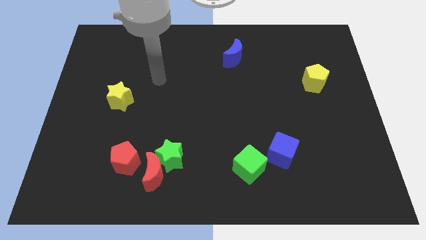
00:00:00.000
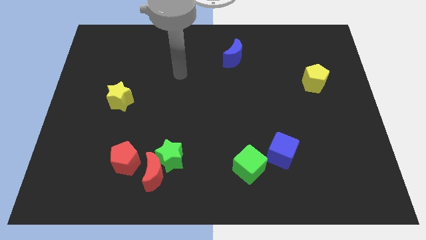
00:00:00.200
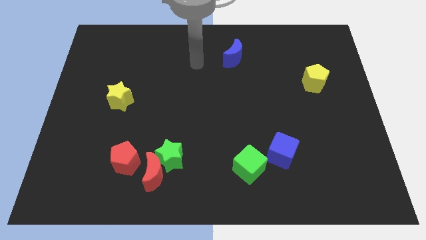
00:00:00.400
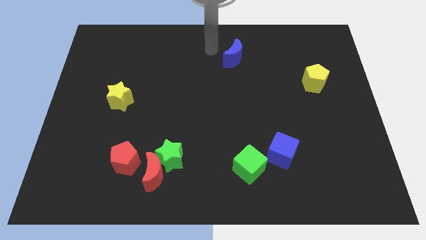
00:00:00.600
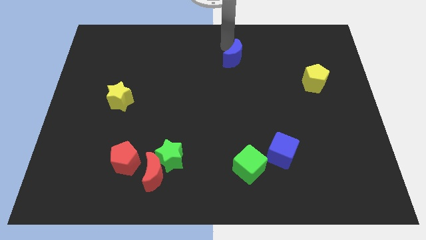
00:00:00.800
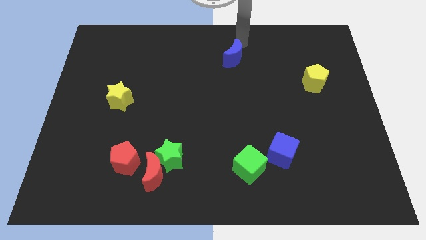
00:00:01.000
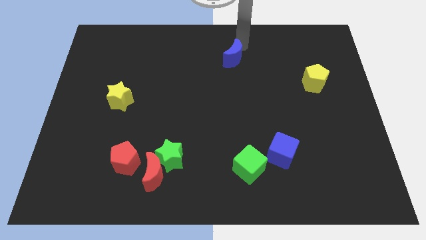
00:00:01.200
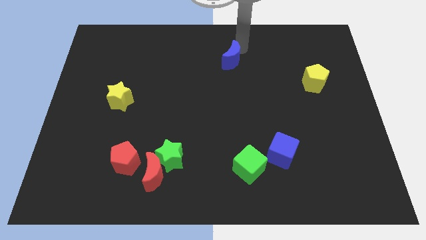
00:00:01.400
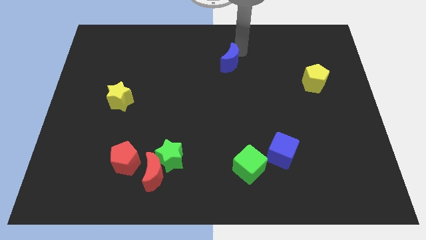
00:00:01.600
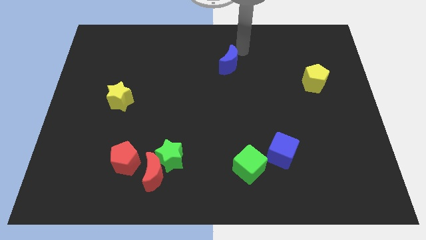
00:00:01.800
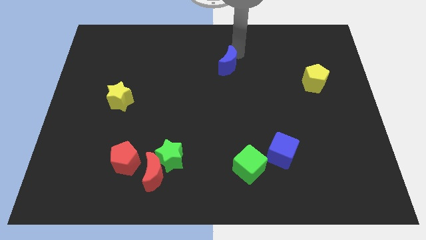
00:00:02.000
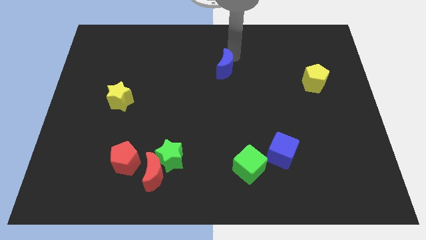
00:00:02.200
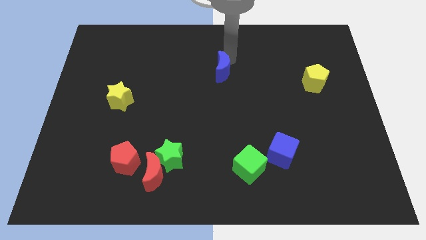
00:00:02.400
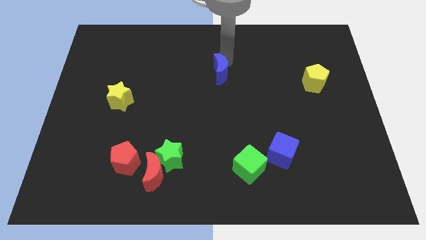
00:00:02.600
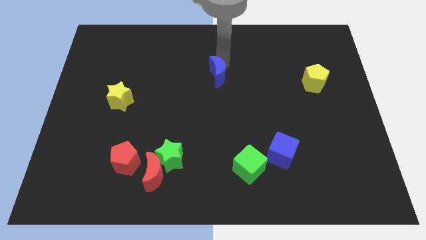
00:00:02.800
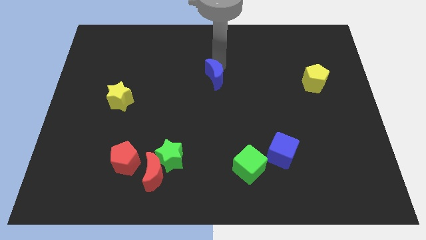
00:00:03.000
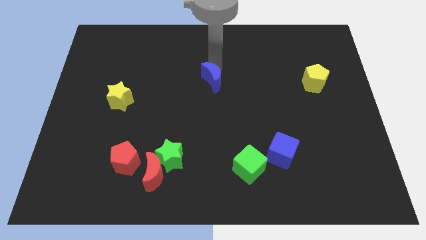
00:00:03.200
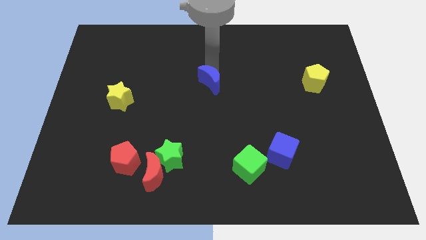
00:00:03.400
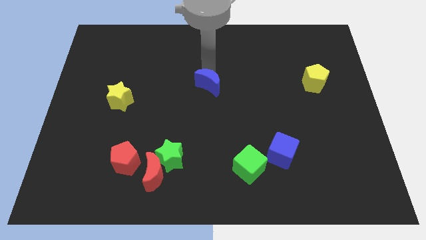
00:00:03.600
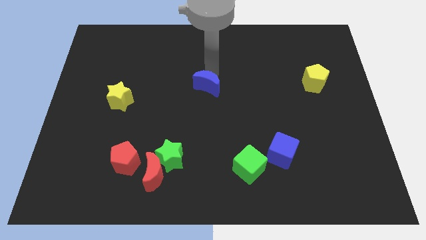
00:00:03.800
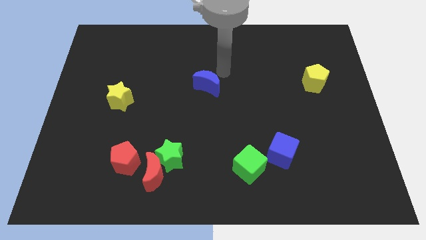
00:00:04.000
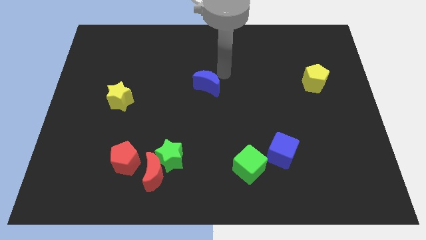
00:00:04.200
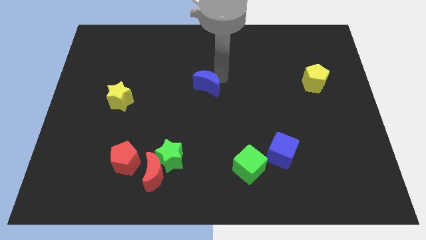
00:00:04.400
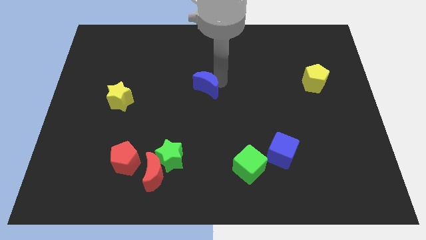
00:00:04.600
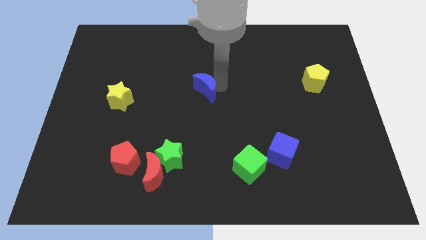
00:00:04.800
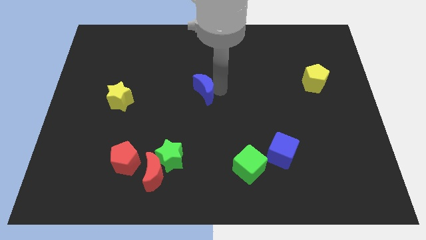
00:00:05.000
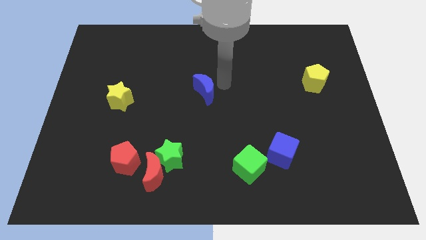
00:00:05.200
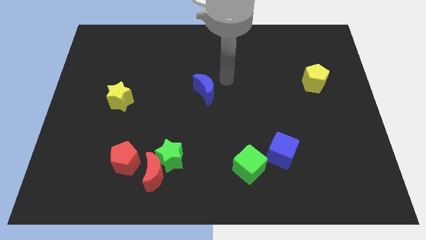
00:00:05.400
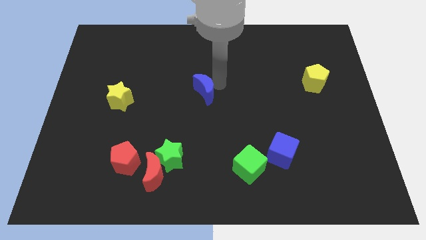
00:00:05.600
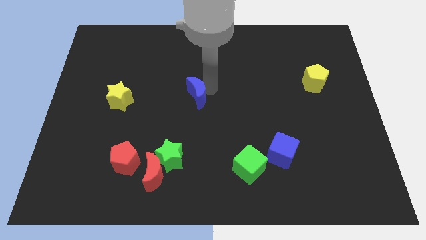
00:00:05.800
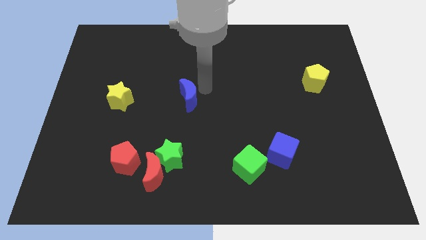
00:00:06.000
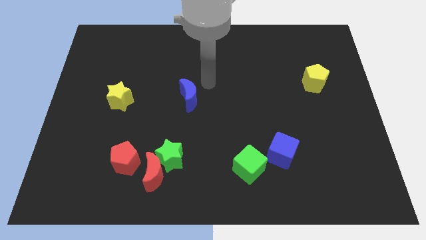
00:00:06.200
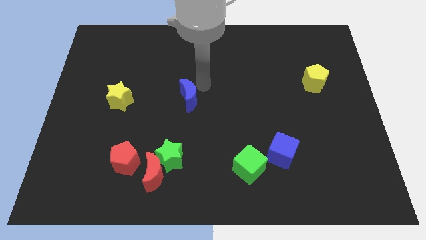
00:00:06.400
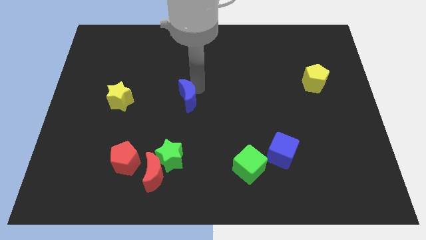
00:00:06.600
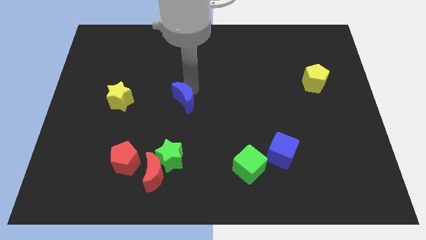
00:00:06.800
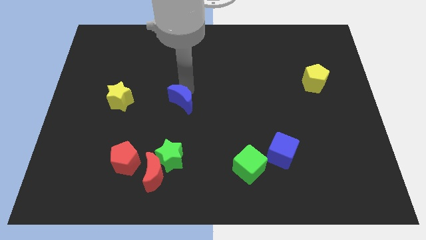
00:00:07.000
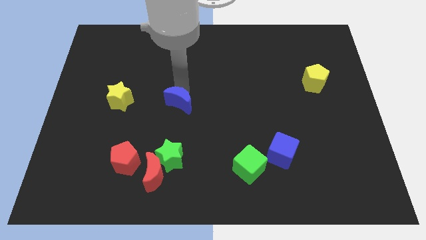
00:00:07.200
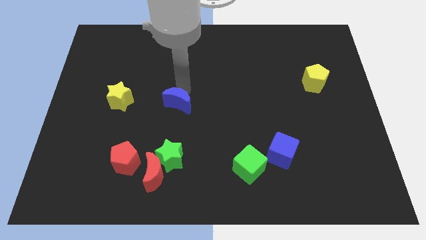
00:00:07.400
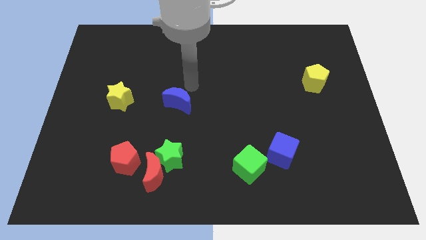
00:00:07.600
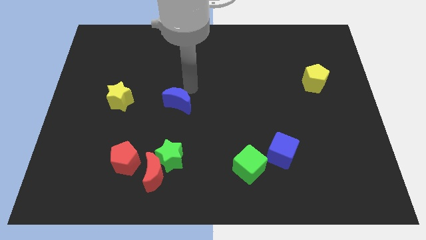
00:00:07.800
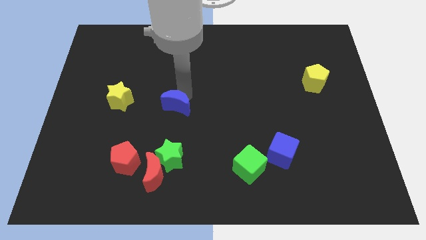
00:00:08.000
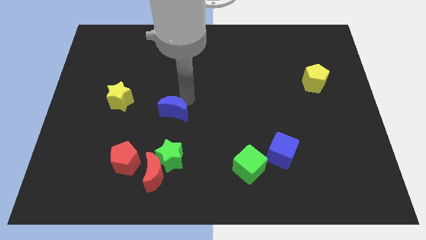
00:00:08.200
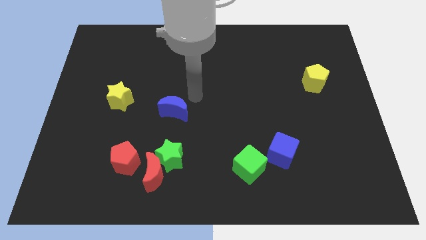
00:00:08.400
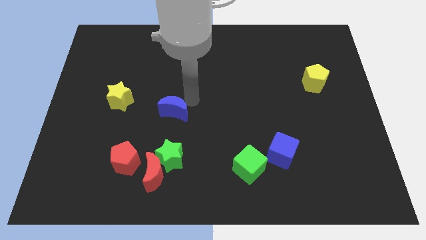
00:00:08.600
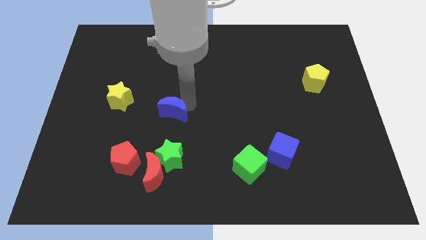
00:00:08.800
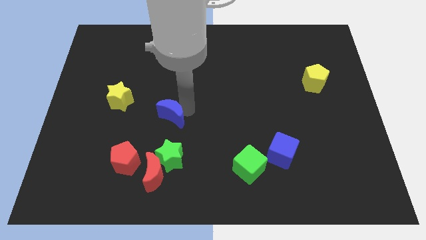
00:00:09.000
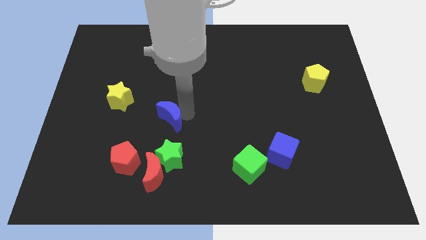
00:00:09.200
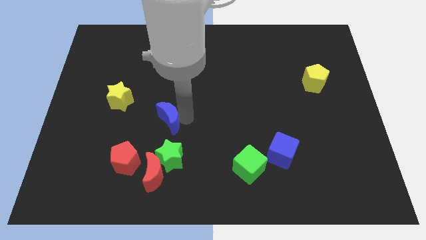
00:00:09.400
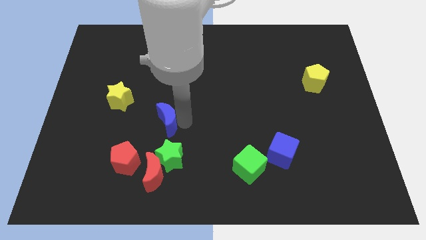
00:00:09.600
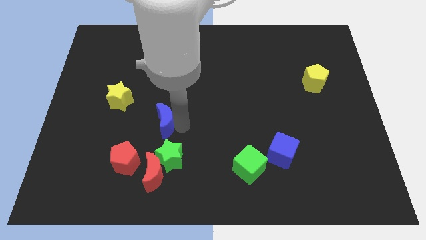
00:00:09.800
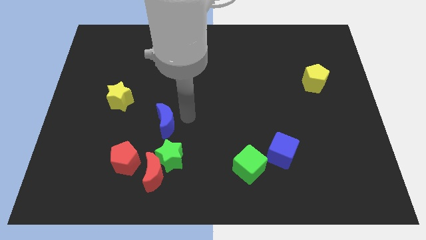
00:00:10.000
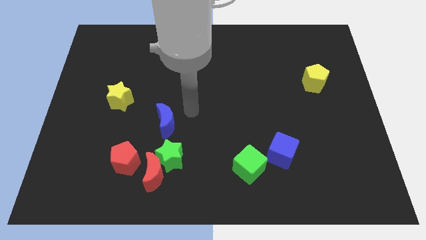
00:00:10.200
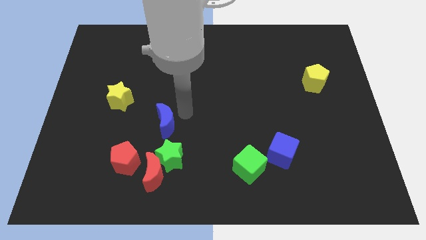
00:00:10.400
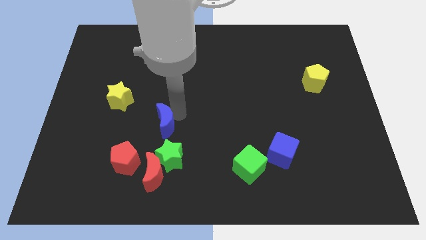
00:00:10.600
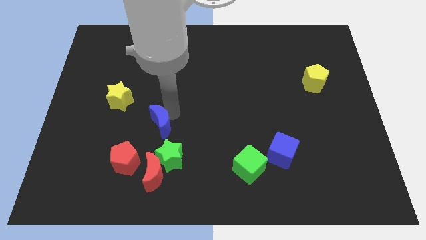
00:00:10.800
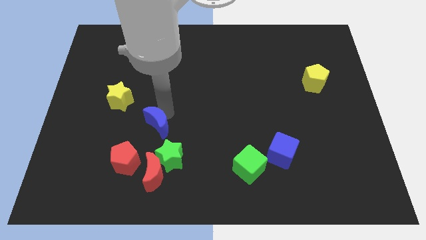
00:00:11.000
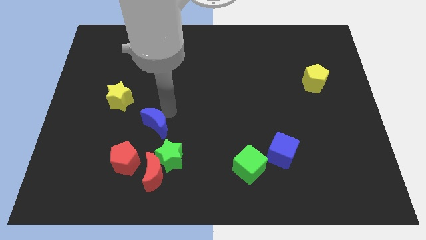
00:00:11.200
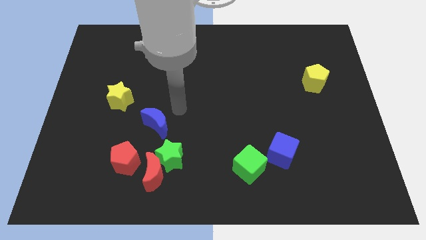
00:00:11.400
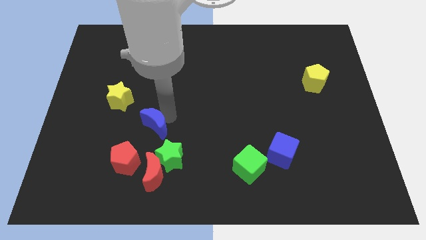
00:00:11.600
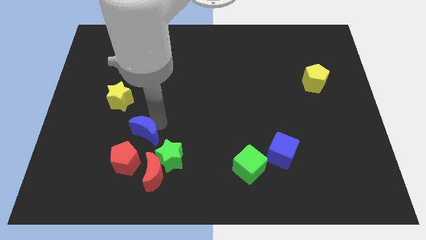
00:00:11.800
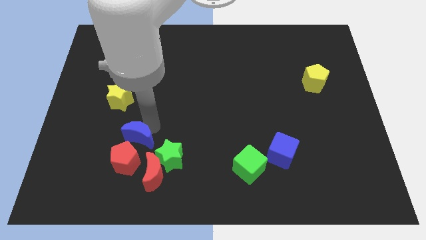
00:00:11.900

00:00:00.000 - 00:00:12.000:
slide the blue moon to the top left of the red moon

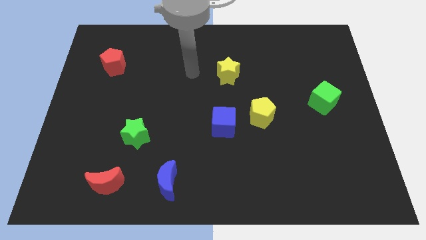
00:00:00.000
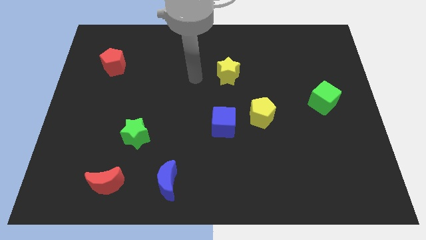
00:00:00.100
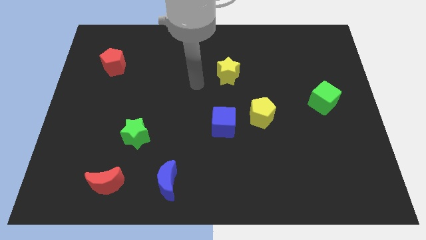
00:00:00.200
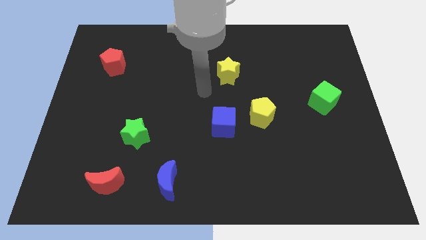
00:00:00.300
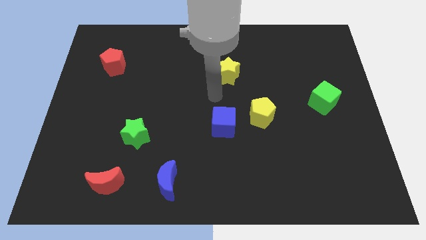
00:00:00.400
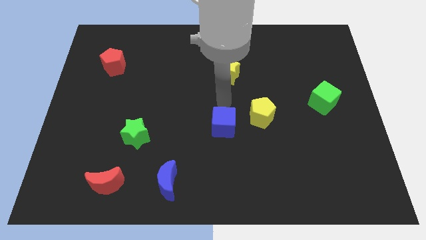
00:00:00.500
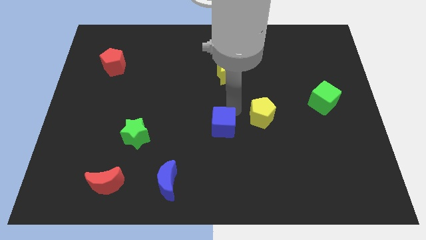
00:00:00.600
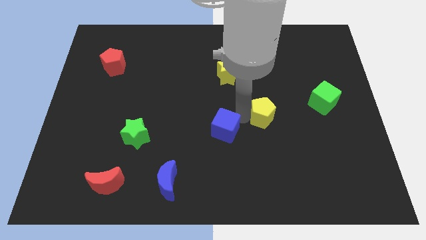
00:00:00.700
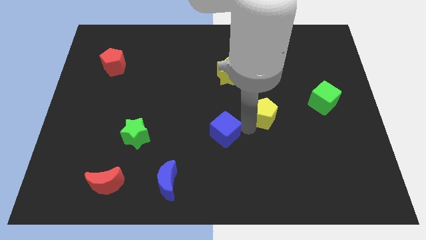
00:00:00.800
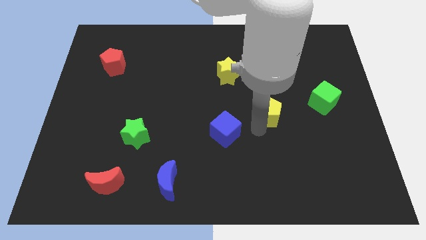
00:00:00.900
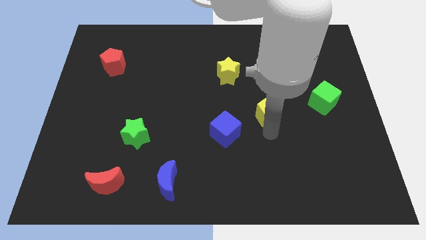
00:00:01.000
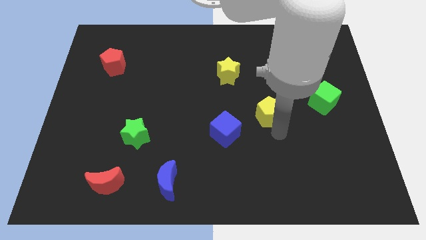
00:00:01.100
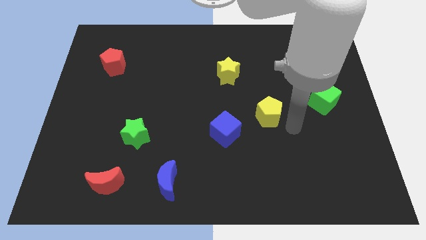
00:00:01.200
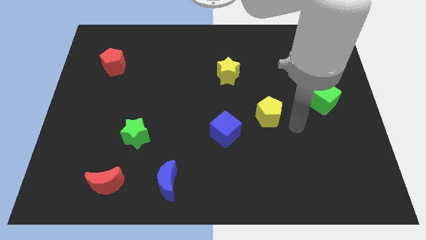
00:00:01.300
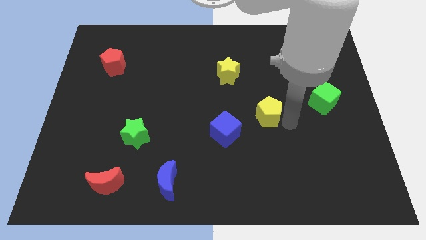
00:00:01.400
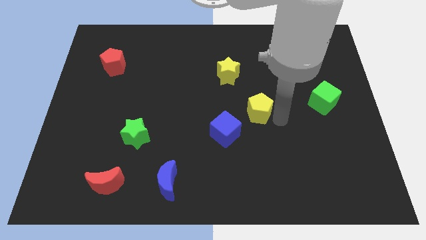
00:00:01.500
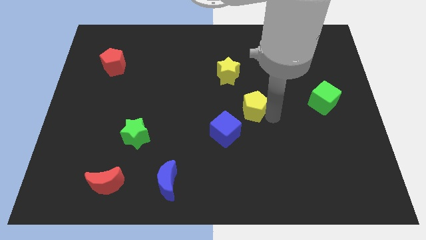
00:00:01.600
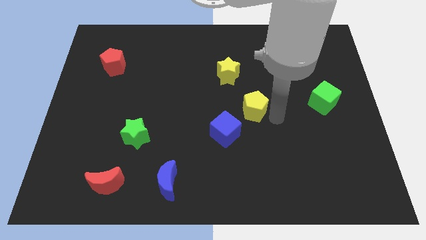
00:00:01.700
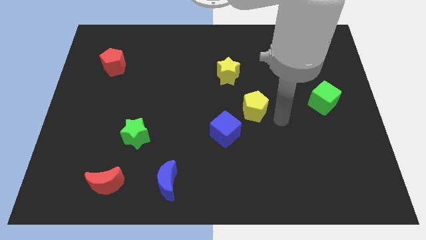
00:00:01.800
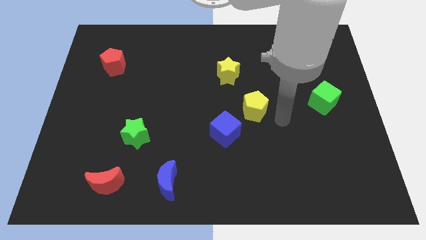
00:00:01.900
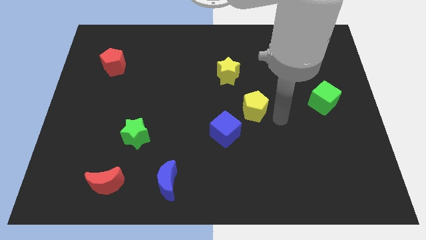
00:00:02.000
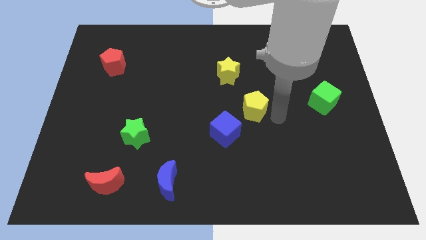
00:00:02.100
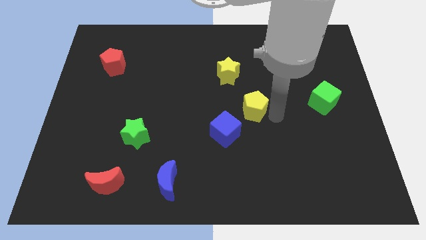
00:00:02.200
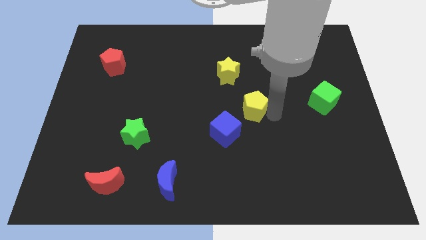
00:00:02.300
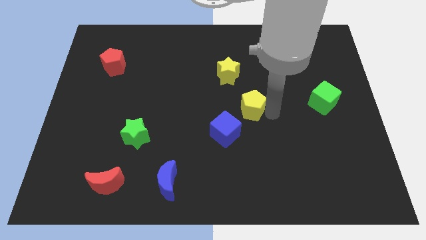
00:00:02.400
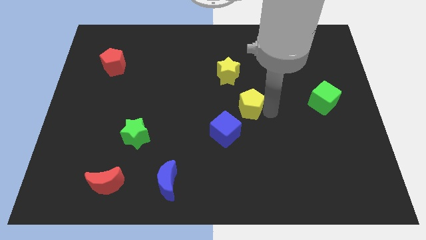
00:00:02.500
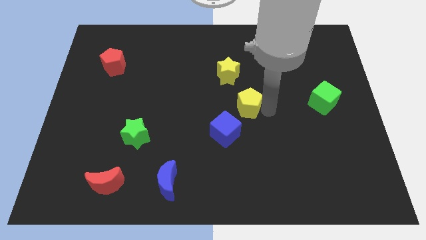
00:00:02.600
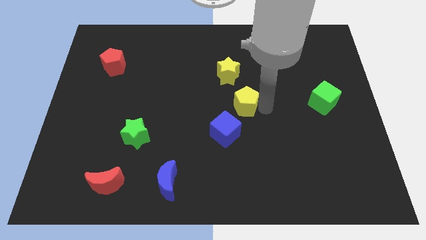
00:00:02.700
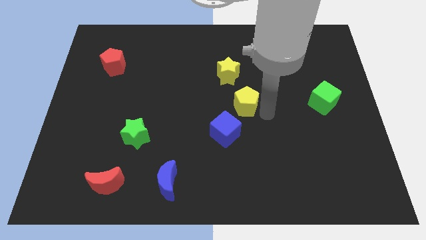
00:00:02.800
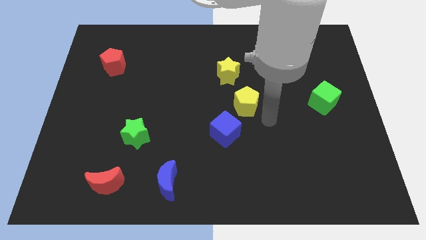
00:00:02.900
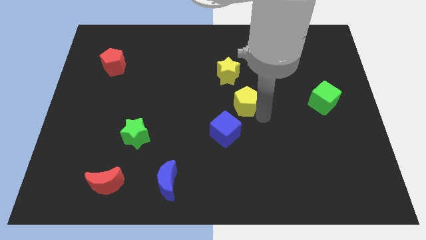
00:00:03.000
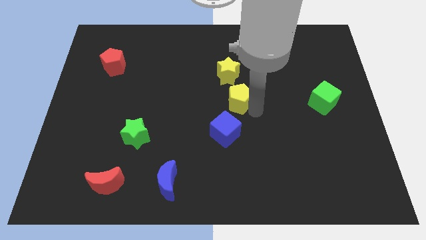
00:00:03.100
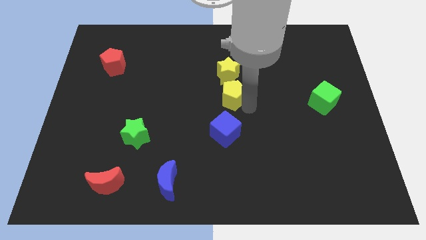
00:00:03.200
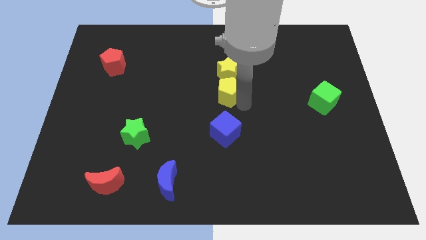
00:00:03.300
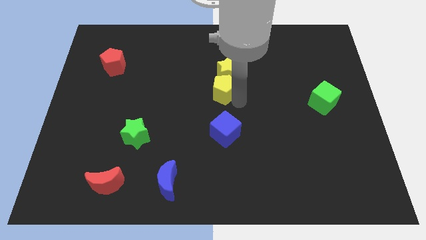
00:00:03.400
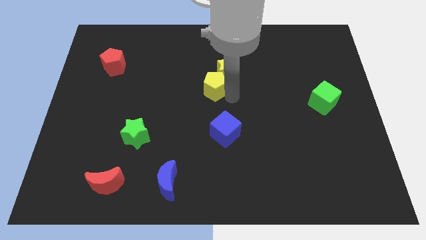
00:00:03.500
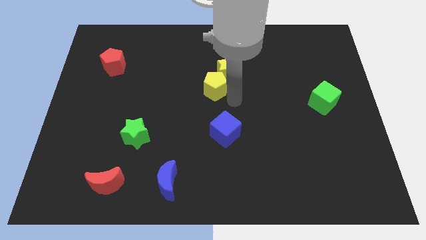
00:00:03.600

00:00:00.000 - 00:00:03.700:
slide the yellow pentagon just left of the yellow star
